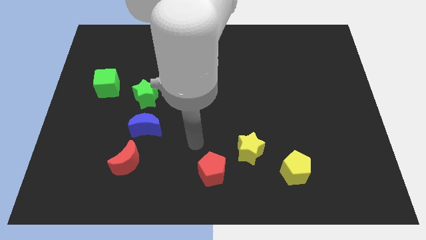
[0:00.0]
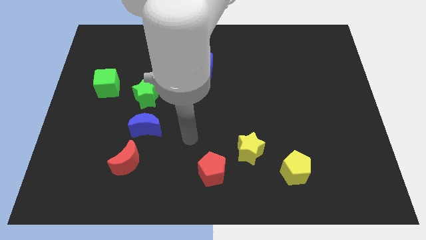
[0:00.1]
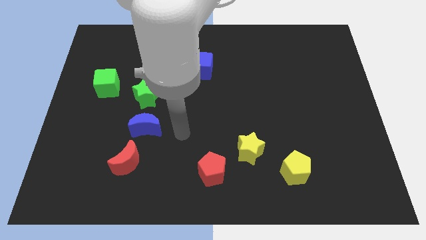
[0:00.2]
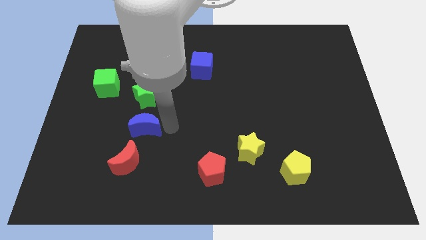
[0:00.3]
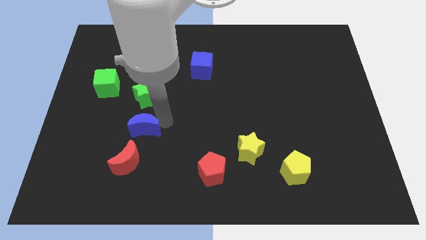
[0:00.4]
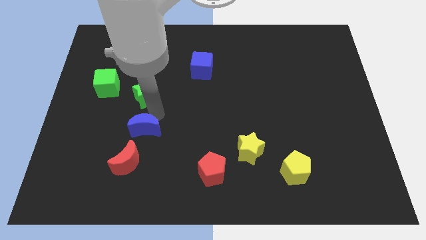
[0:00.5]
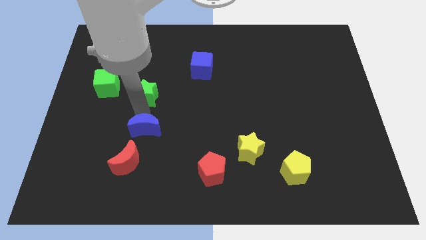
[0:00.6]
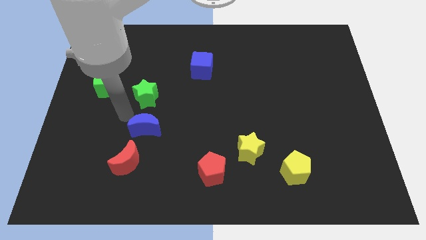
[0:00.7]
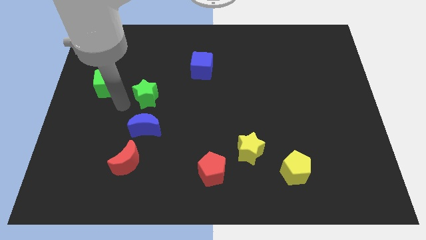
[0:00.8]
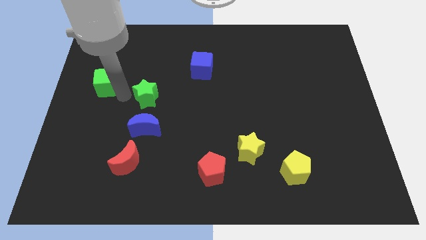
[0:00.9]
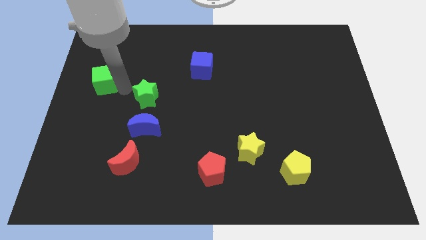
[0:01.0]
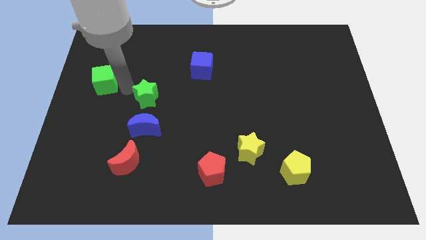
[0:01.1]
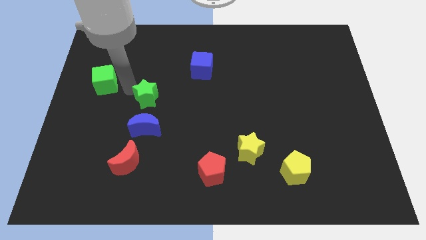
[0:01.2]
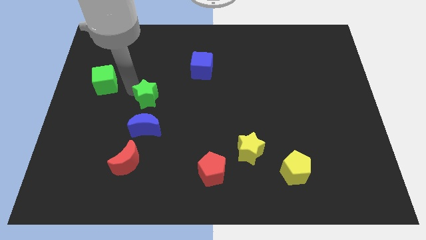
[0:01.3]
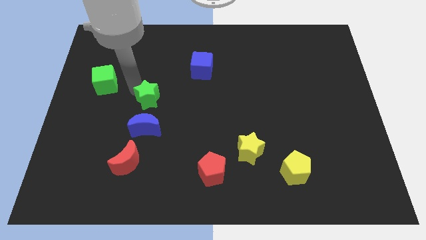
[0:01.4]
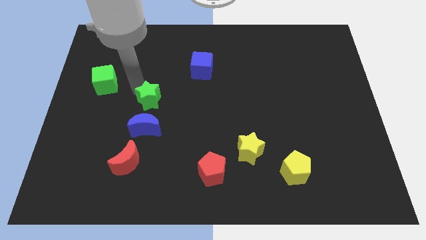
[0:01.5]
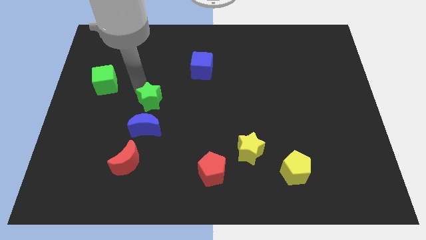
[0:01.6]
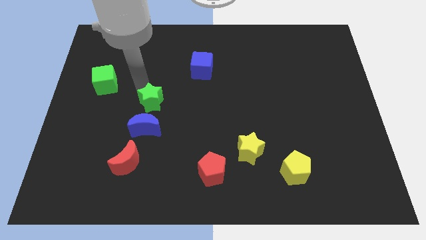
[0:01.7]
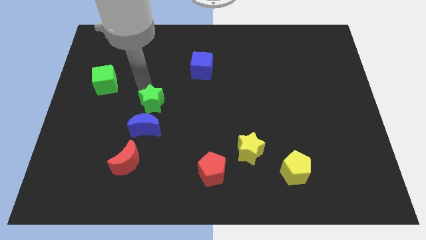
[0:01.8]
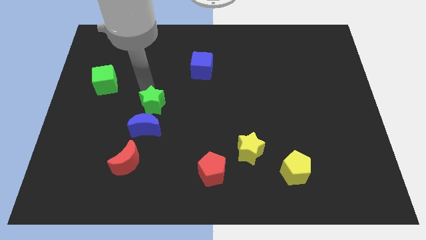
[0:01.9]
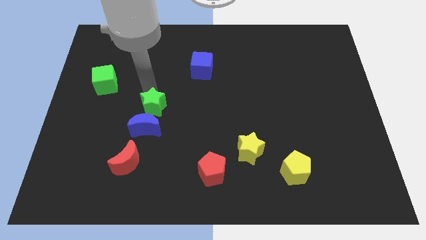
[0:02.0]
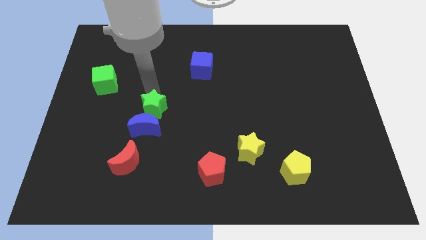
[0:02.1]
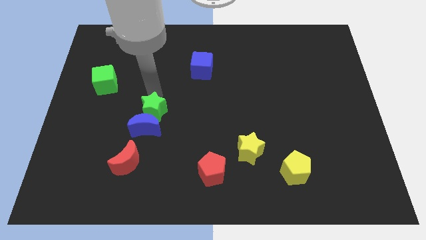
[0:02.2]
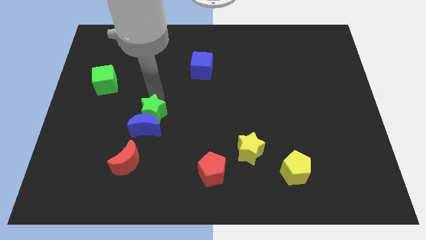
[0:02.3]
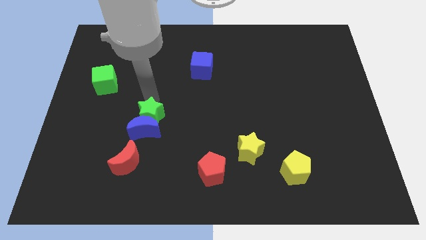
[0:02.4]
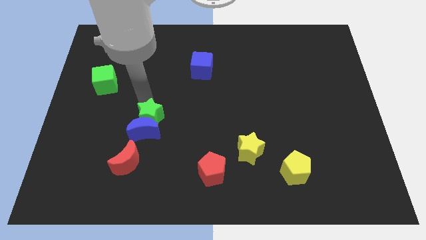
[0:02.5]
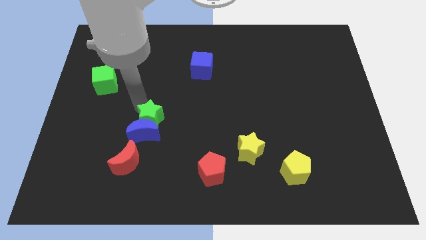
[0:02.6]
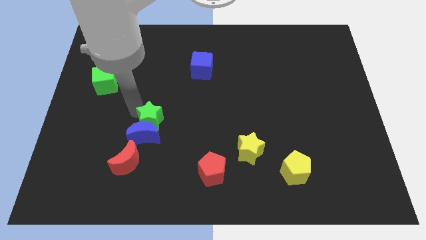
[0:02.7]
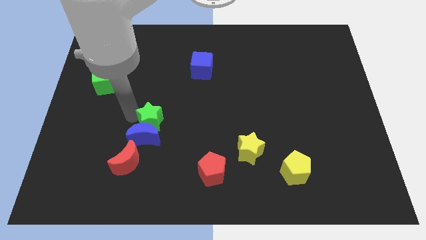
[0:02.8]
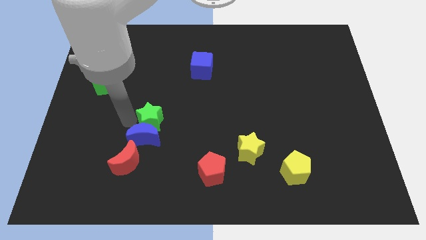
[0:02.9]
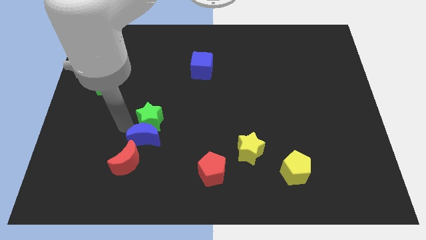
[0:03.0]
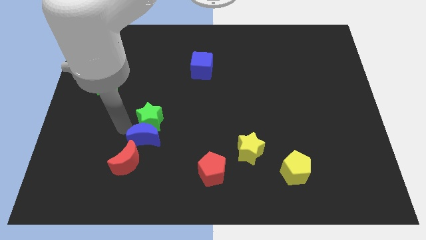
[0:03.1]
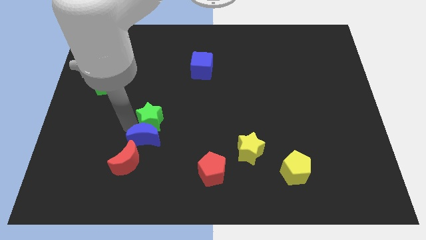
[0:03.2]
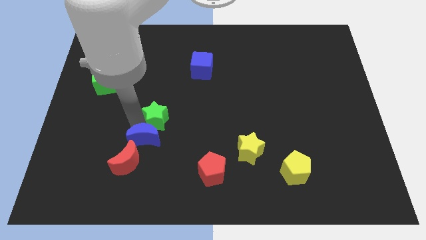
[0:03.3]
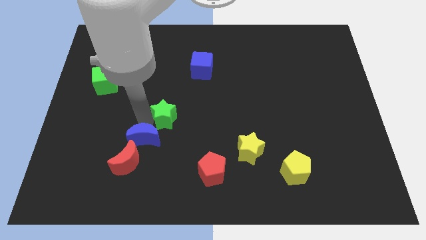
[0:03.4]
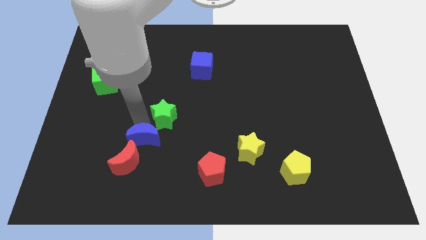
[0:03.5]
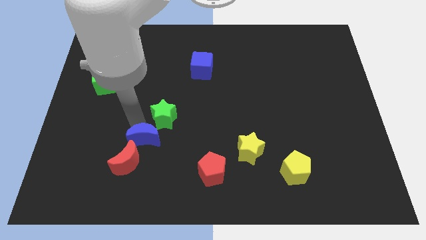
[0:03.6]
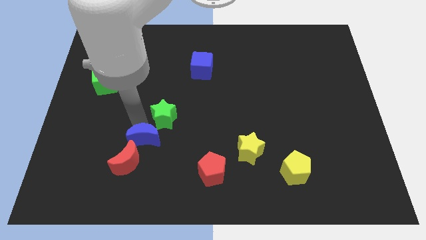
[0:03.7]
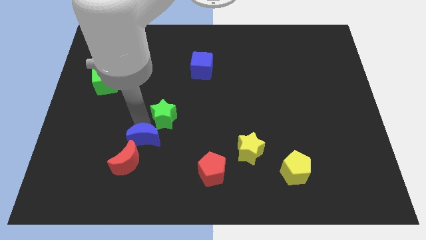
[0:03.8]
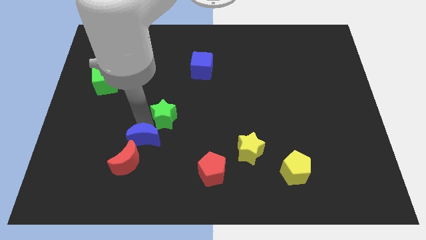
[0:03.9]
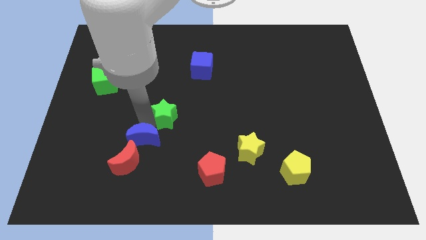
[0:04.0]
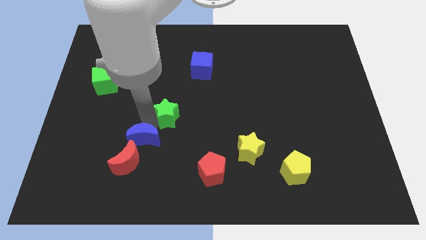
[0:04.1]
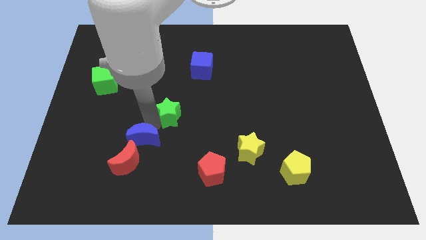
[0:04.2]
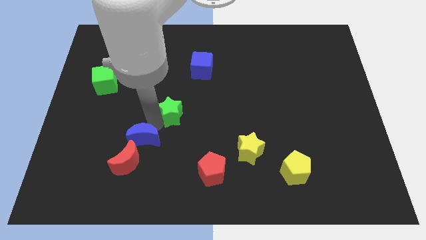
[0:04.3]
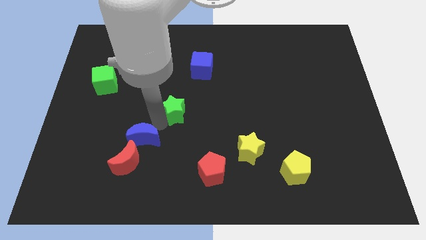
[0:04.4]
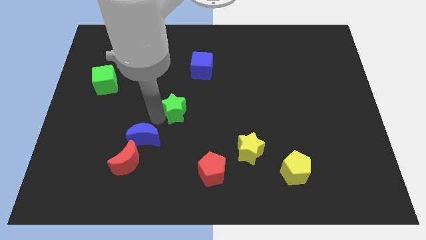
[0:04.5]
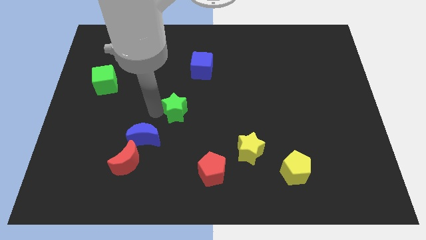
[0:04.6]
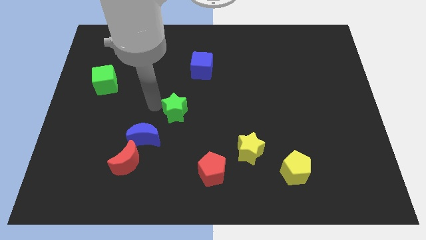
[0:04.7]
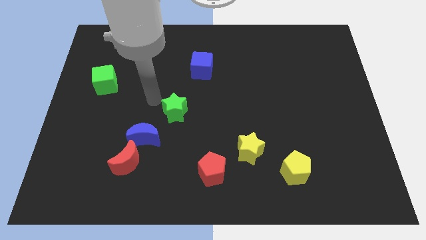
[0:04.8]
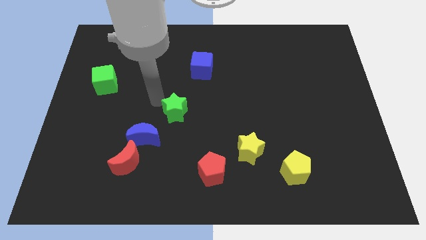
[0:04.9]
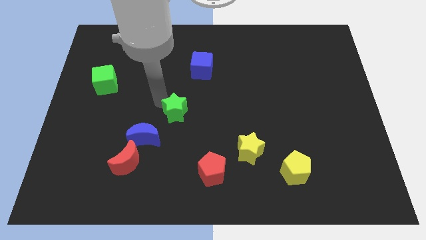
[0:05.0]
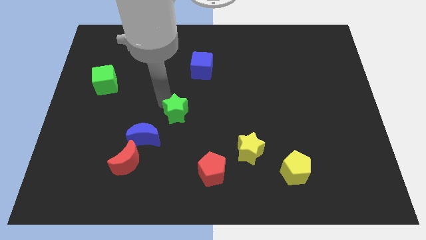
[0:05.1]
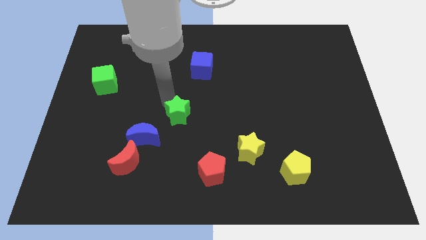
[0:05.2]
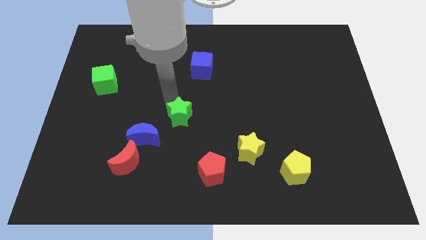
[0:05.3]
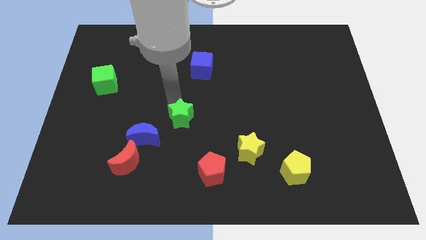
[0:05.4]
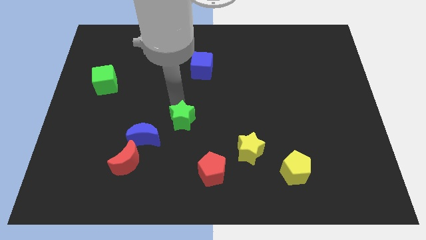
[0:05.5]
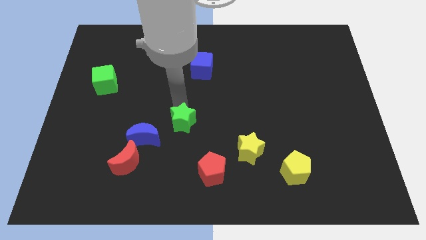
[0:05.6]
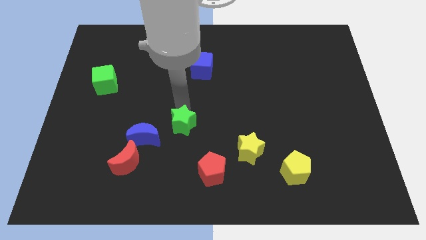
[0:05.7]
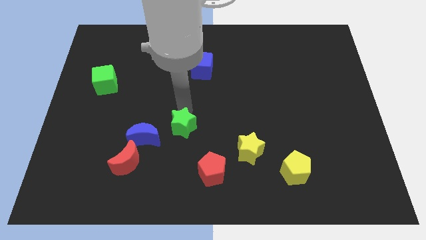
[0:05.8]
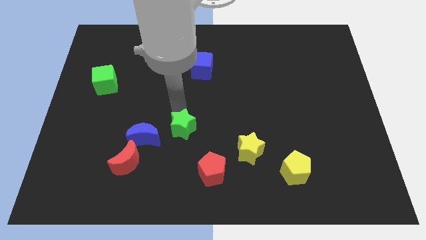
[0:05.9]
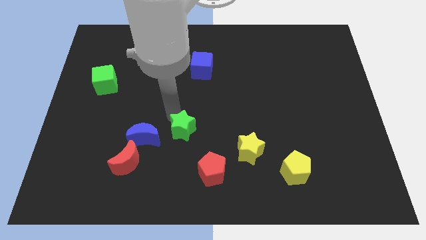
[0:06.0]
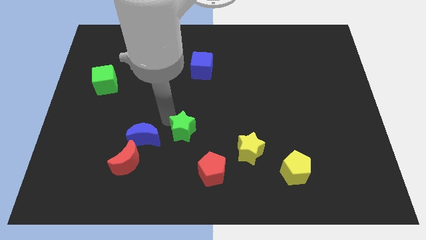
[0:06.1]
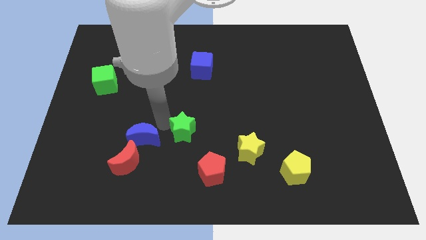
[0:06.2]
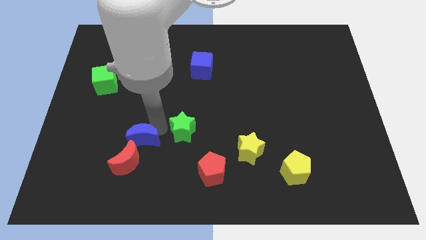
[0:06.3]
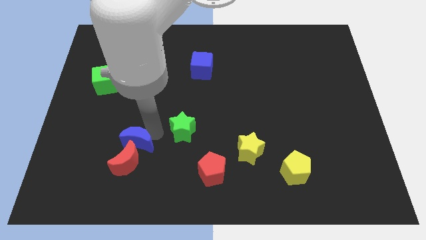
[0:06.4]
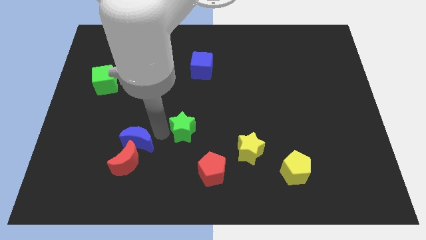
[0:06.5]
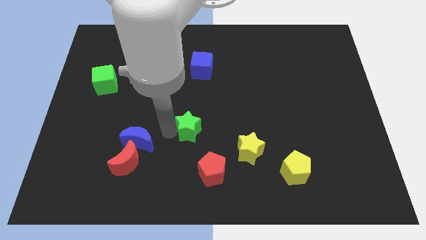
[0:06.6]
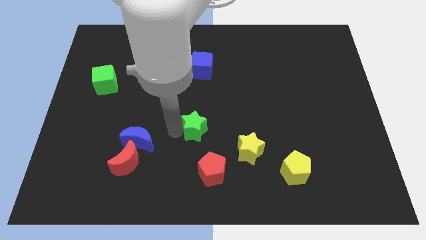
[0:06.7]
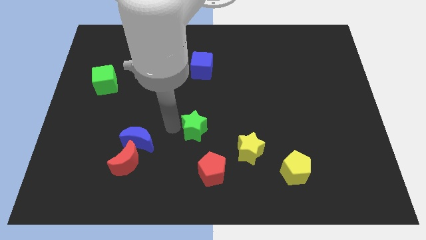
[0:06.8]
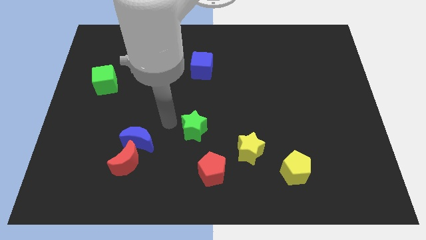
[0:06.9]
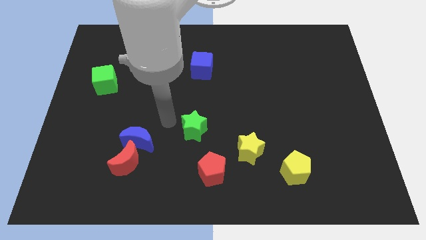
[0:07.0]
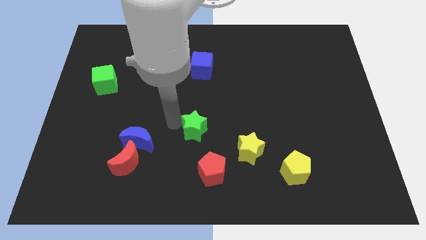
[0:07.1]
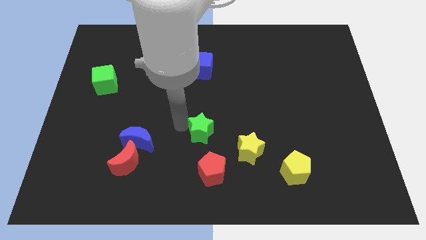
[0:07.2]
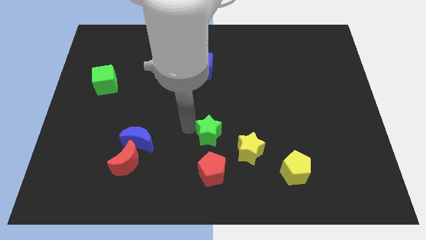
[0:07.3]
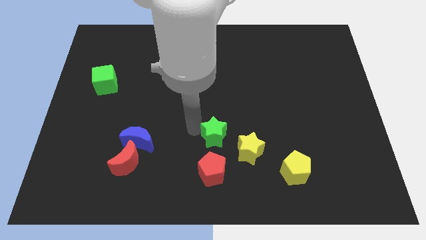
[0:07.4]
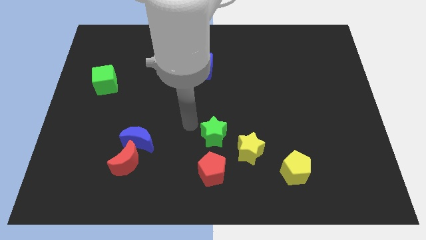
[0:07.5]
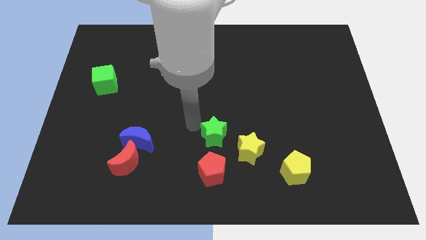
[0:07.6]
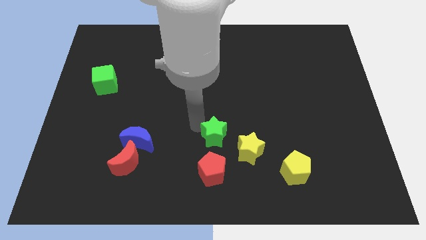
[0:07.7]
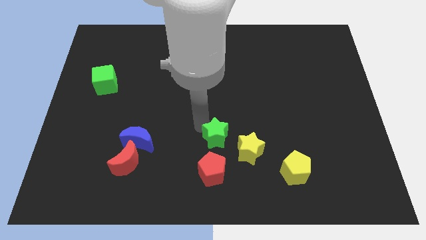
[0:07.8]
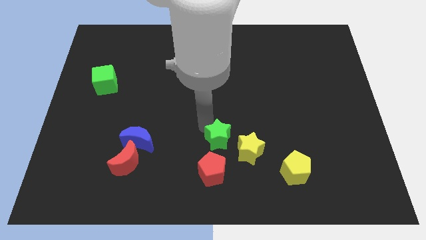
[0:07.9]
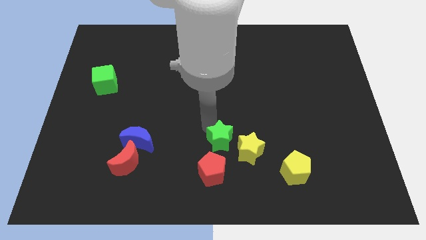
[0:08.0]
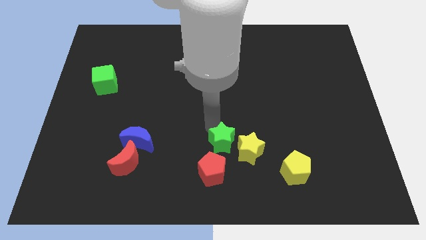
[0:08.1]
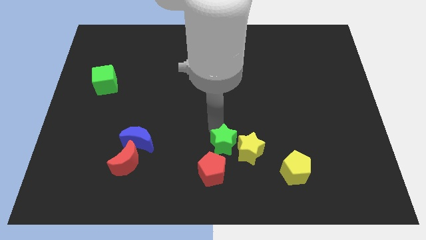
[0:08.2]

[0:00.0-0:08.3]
push the green star next to the yellow star
